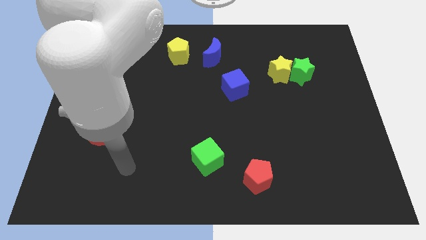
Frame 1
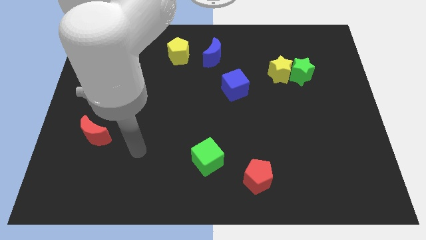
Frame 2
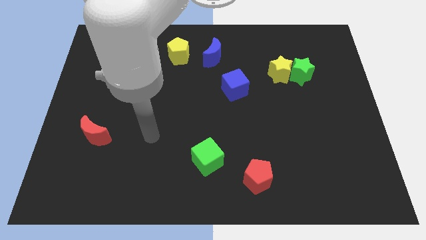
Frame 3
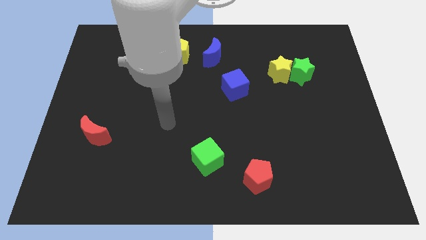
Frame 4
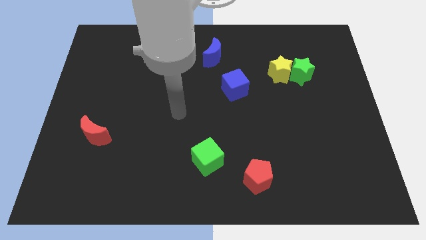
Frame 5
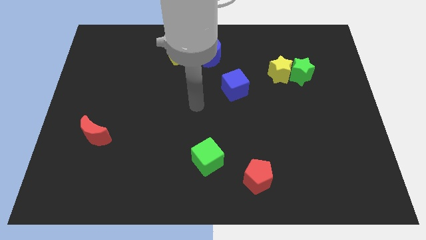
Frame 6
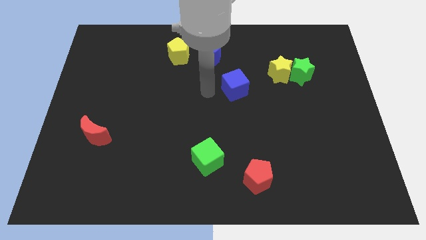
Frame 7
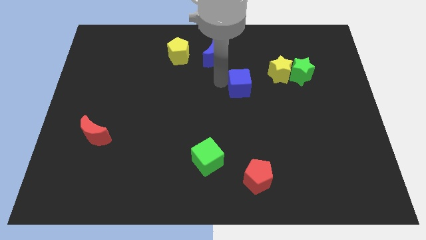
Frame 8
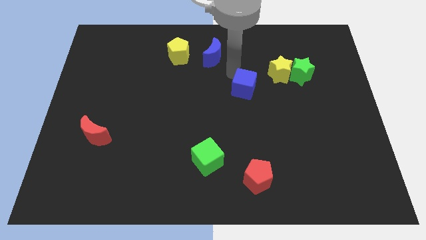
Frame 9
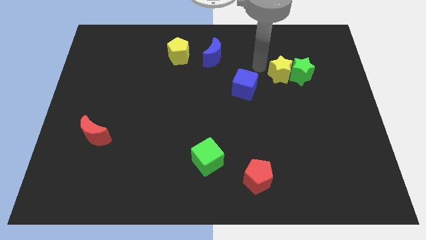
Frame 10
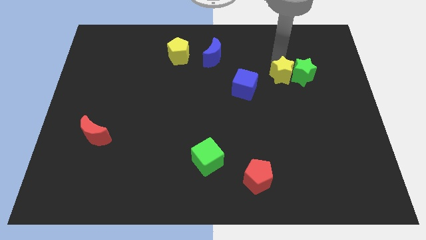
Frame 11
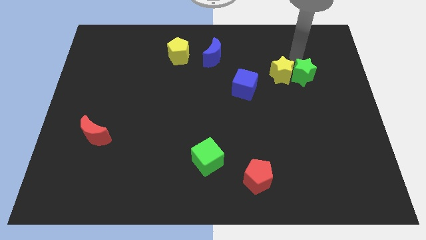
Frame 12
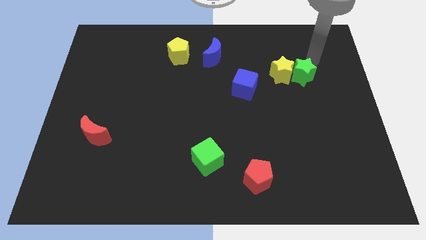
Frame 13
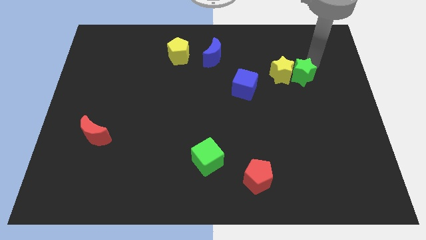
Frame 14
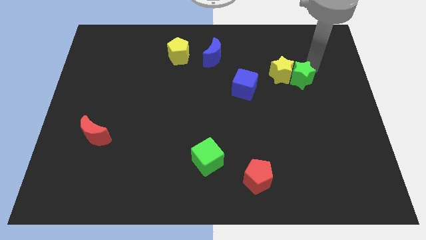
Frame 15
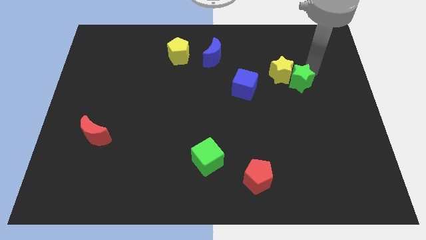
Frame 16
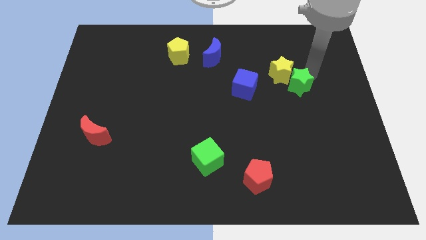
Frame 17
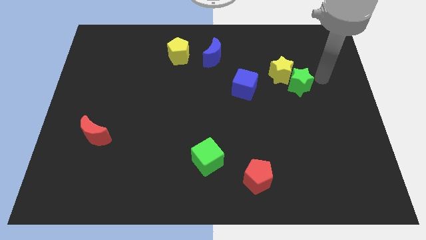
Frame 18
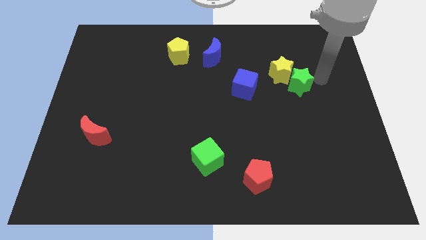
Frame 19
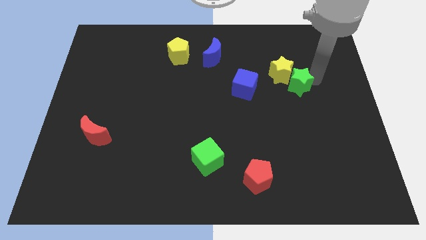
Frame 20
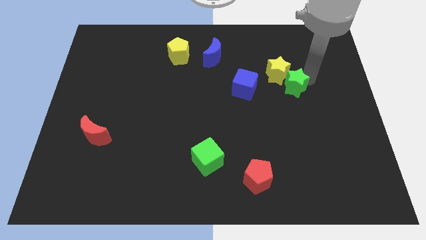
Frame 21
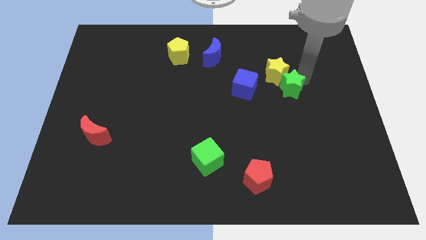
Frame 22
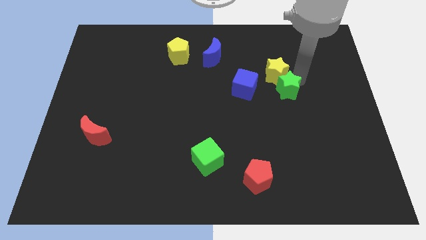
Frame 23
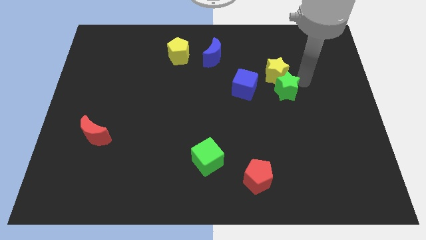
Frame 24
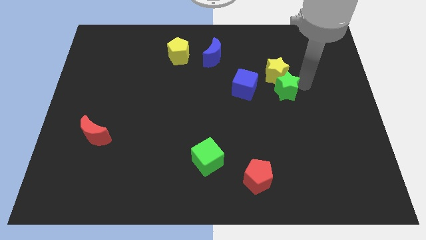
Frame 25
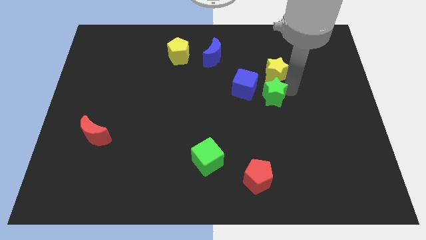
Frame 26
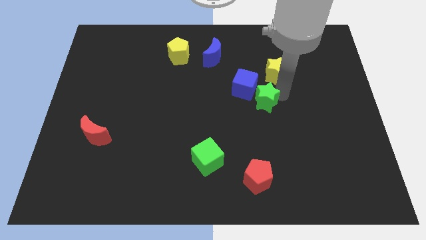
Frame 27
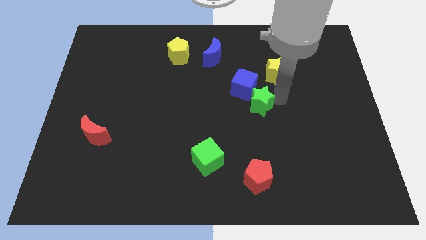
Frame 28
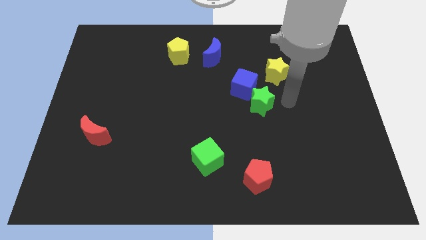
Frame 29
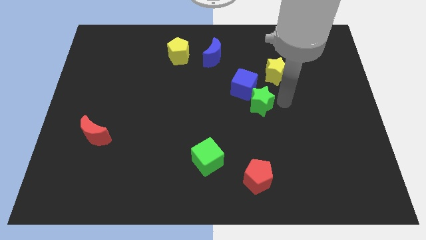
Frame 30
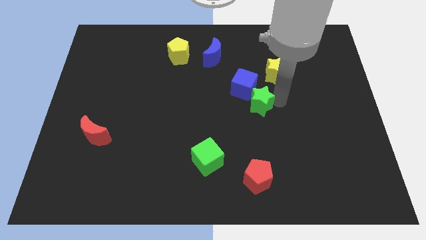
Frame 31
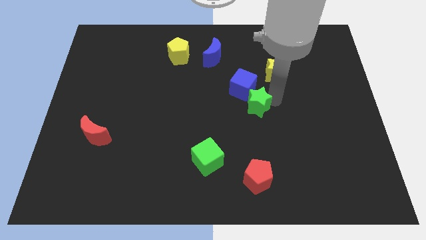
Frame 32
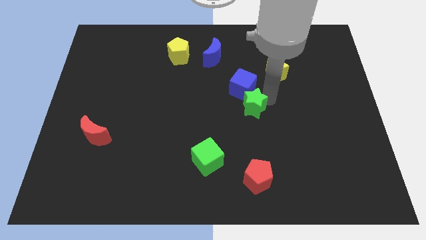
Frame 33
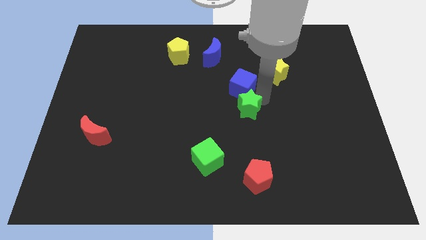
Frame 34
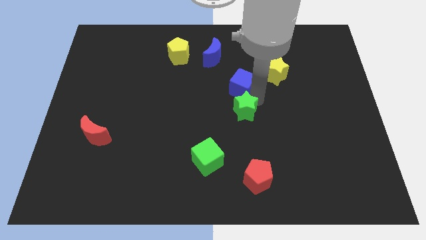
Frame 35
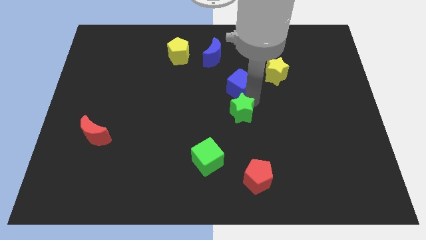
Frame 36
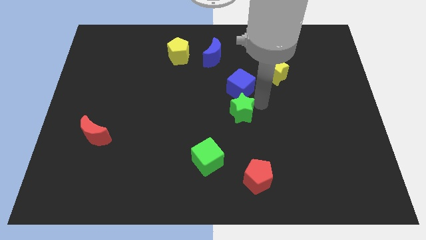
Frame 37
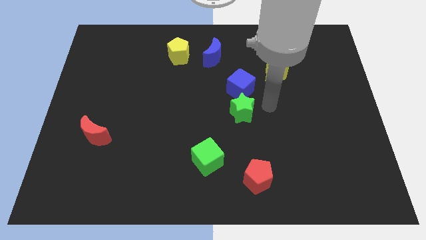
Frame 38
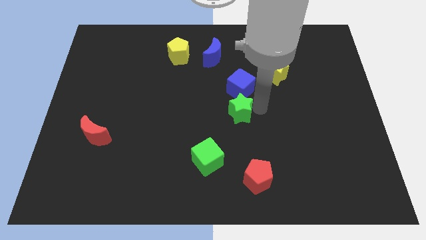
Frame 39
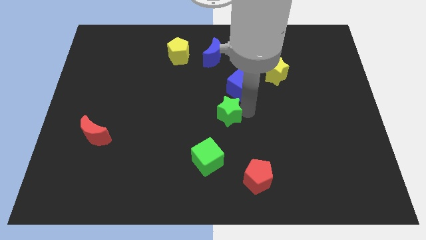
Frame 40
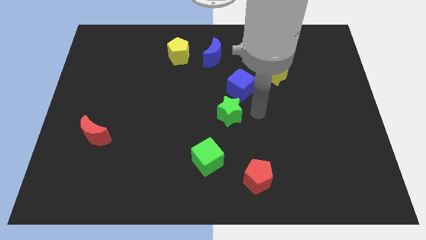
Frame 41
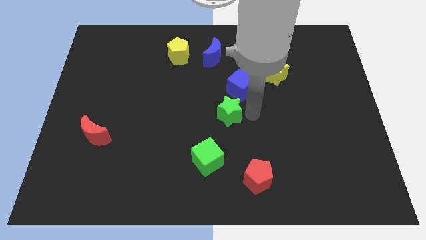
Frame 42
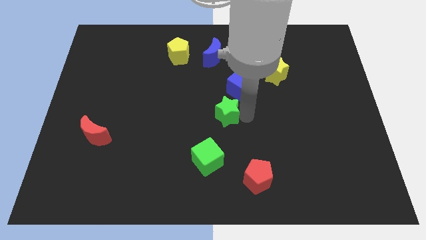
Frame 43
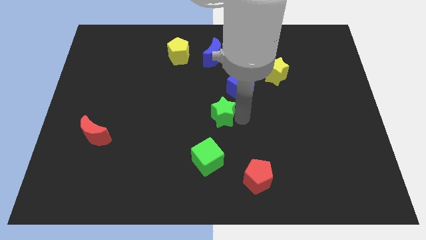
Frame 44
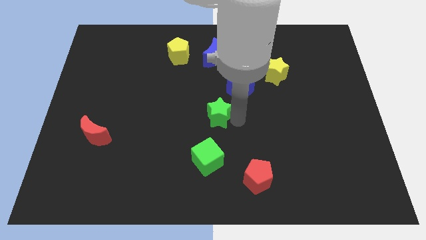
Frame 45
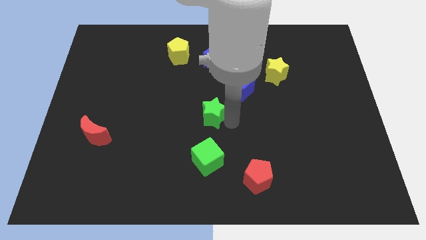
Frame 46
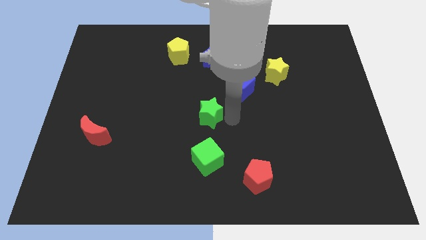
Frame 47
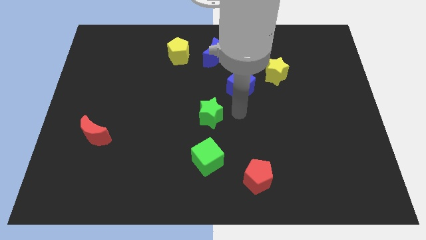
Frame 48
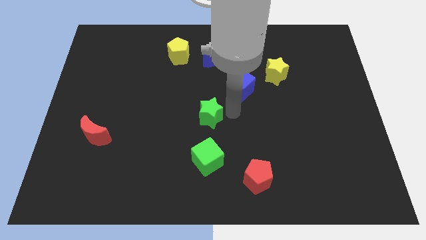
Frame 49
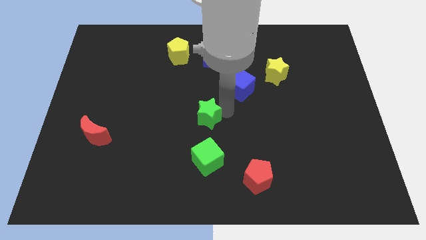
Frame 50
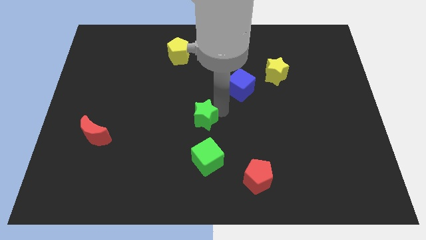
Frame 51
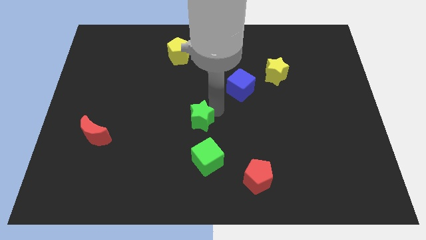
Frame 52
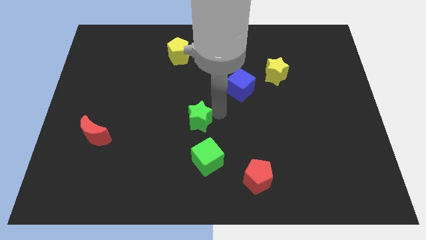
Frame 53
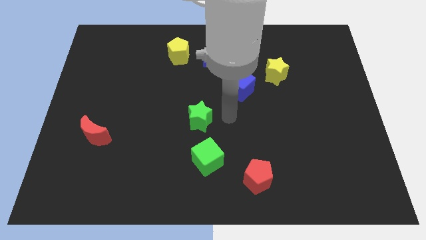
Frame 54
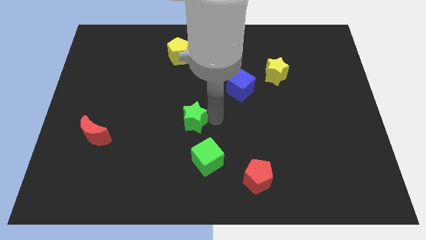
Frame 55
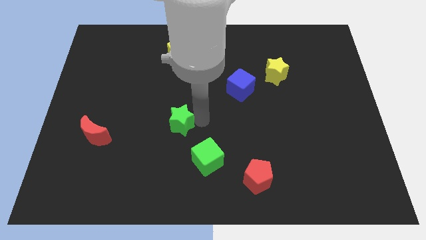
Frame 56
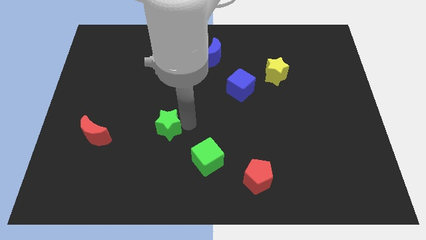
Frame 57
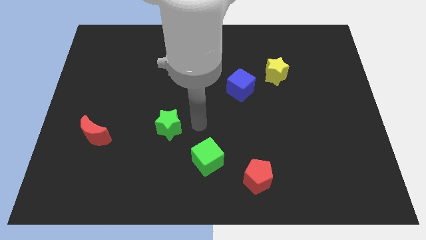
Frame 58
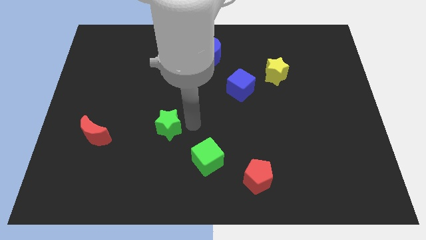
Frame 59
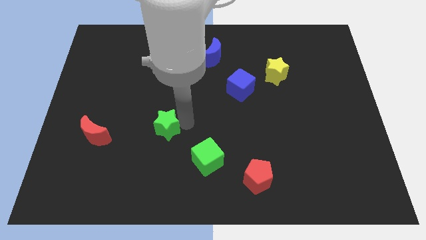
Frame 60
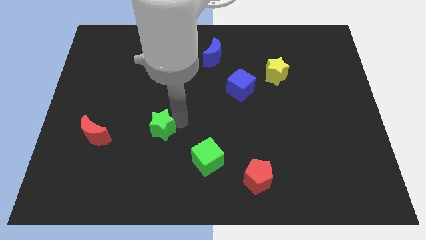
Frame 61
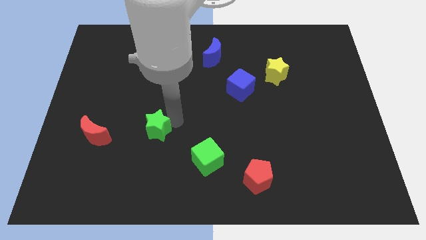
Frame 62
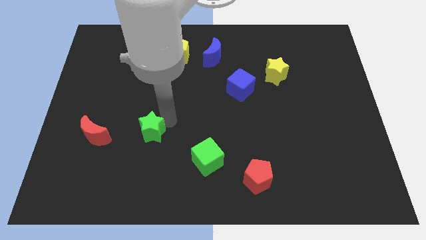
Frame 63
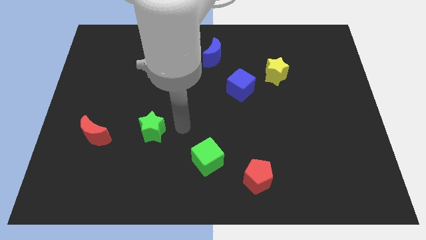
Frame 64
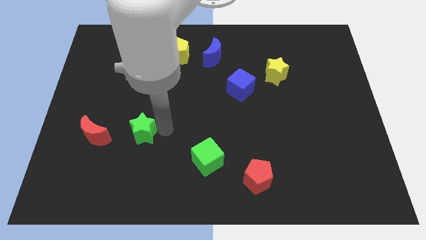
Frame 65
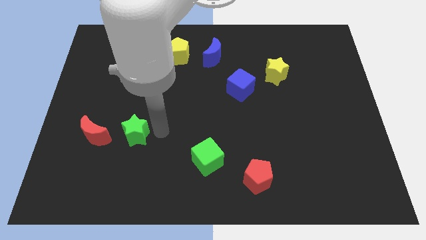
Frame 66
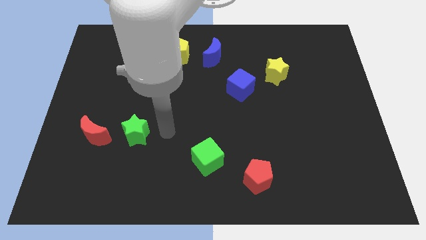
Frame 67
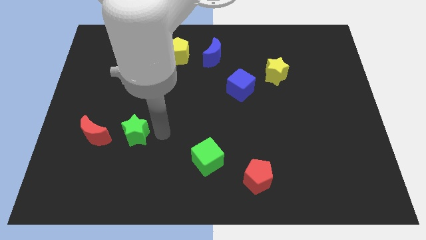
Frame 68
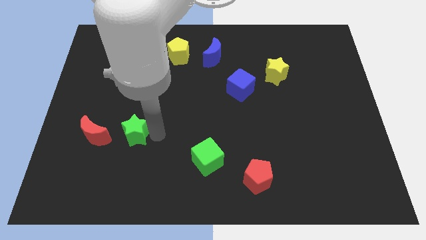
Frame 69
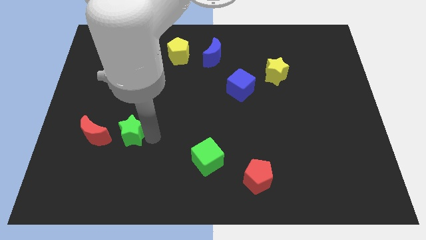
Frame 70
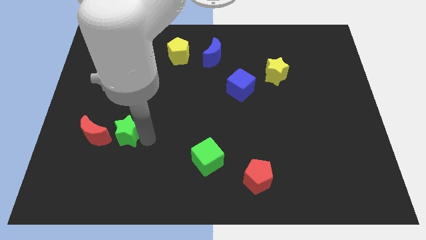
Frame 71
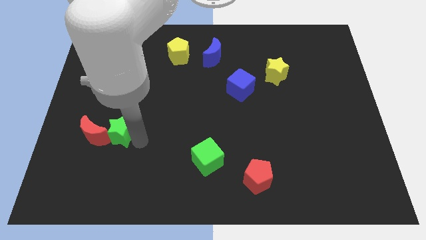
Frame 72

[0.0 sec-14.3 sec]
put the green star towards the red moon

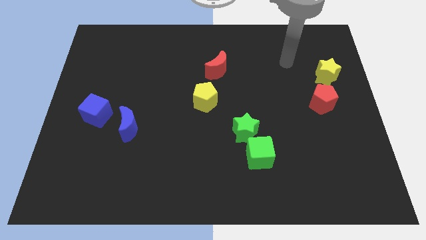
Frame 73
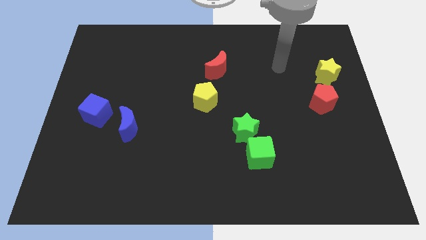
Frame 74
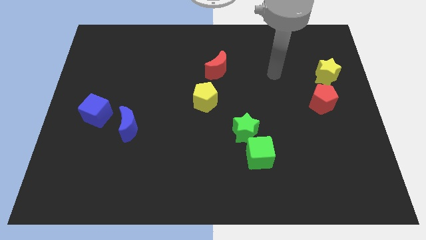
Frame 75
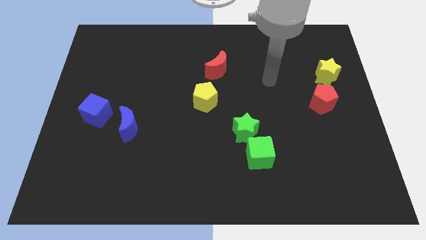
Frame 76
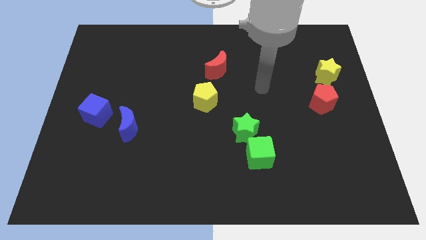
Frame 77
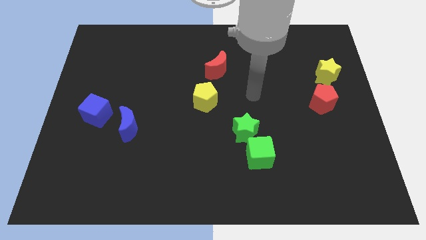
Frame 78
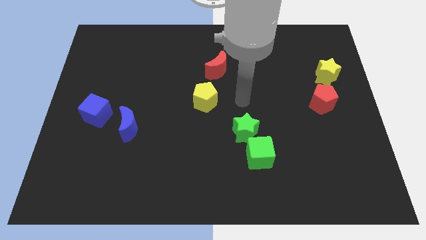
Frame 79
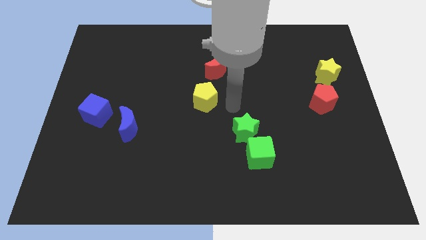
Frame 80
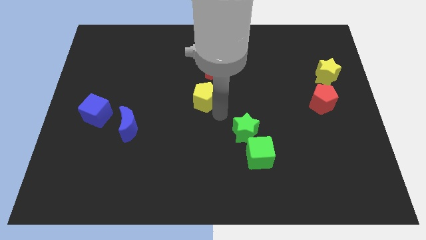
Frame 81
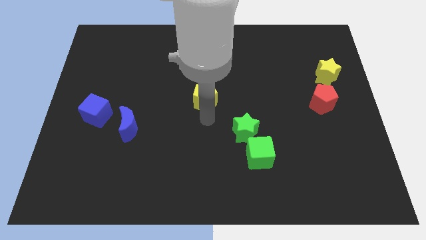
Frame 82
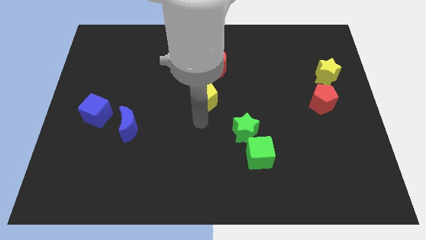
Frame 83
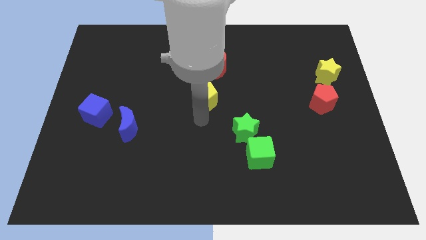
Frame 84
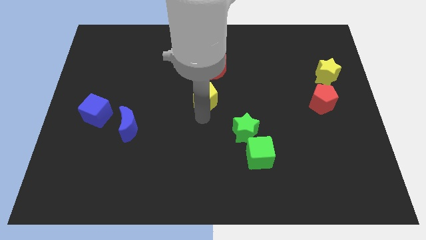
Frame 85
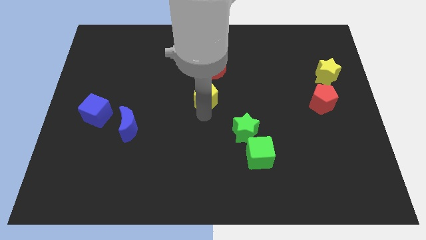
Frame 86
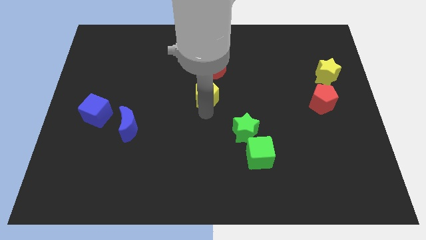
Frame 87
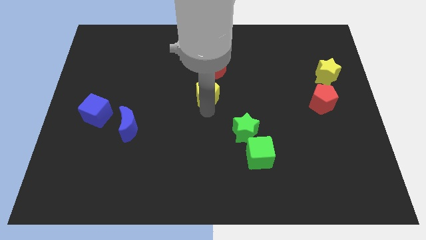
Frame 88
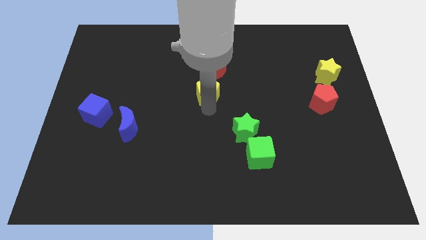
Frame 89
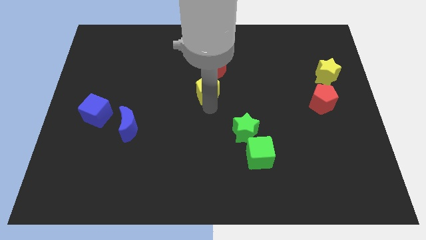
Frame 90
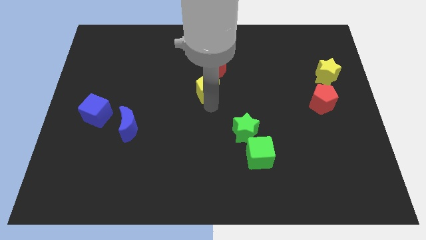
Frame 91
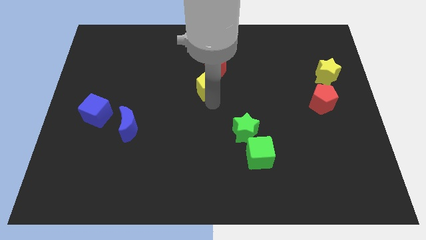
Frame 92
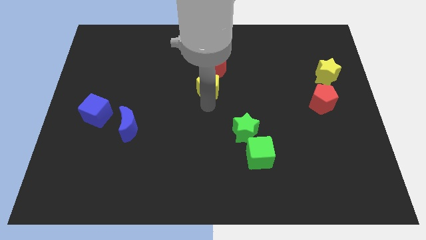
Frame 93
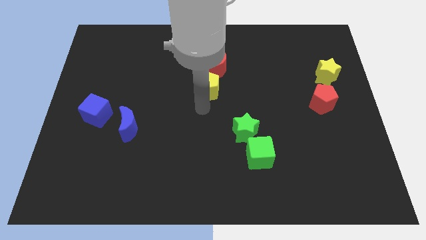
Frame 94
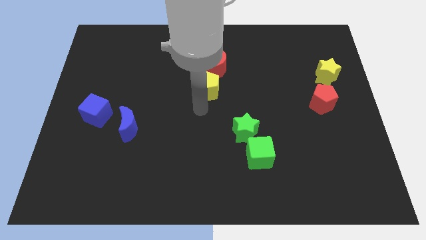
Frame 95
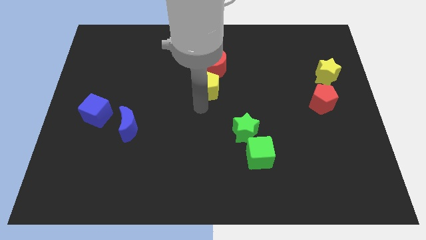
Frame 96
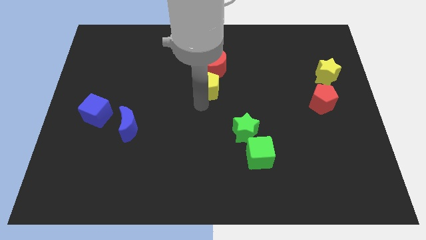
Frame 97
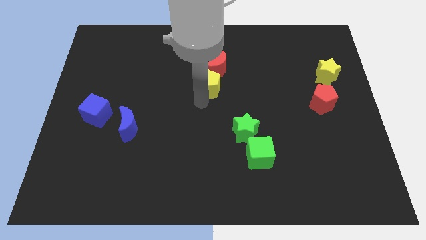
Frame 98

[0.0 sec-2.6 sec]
move the yellow pentagon next to the red moon
